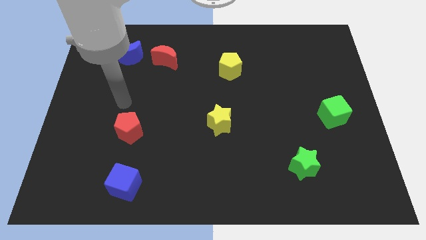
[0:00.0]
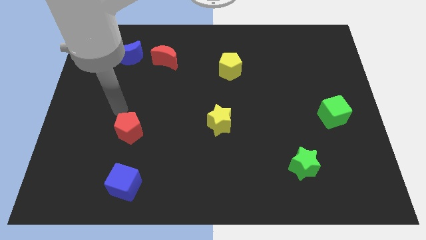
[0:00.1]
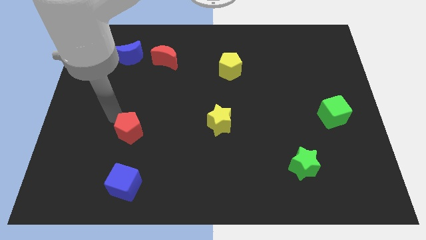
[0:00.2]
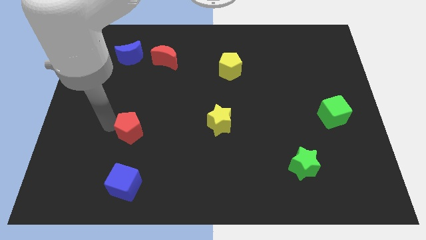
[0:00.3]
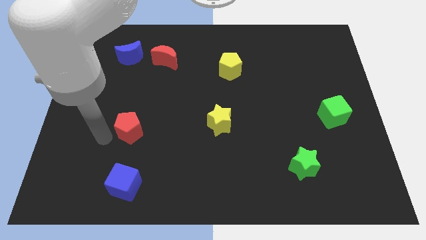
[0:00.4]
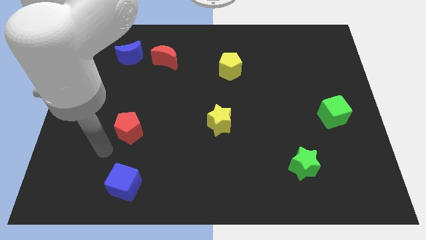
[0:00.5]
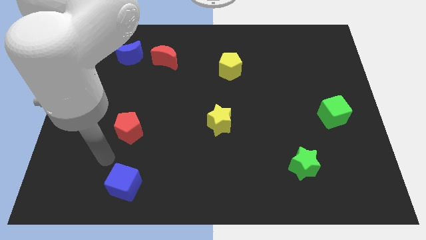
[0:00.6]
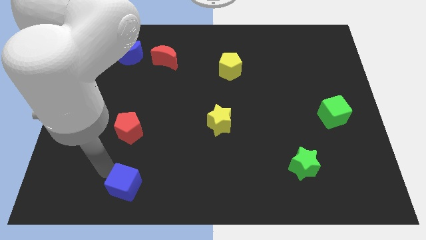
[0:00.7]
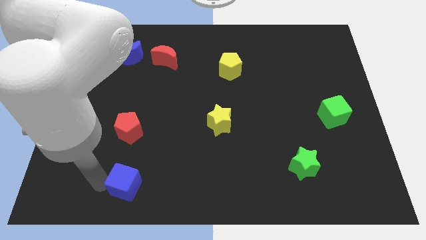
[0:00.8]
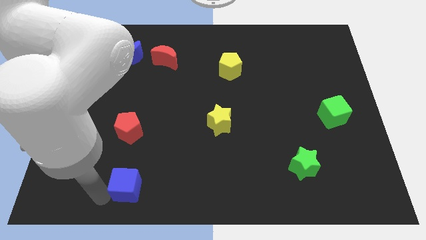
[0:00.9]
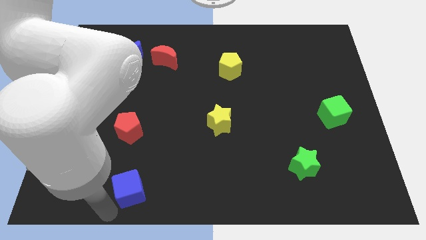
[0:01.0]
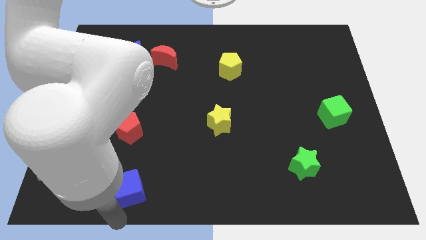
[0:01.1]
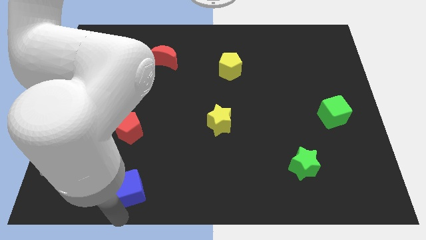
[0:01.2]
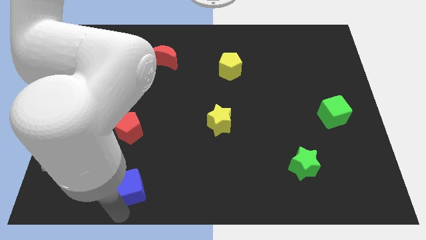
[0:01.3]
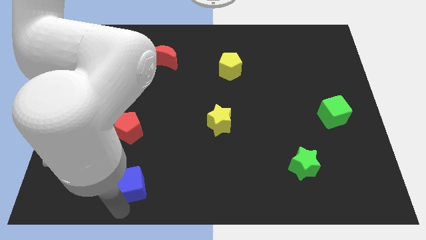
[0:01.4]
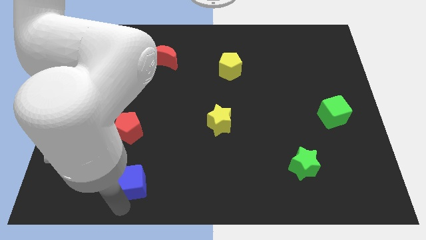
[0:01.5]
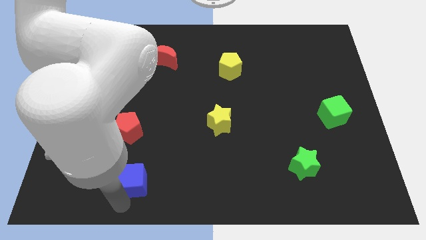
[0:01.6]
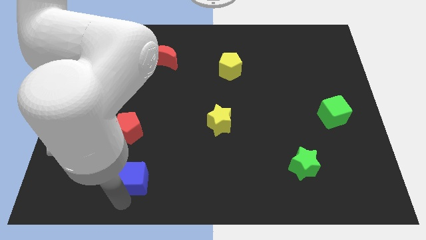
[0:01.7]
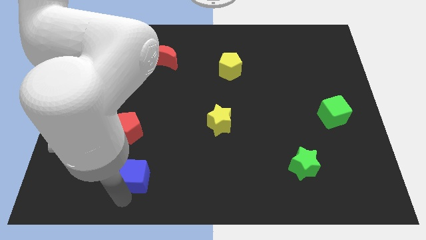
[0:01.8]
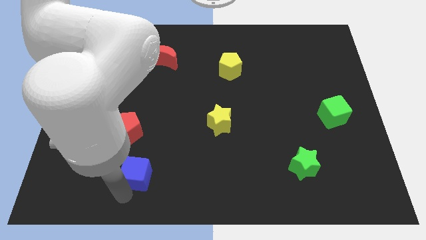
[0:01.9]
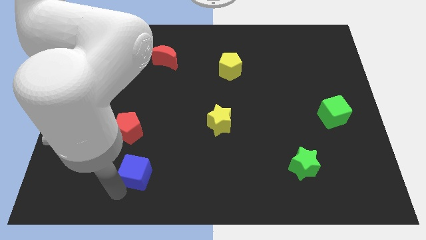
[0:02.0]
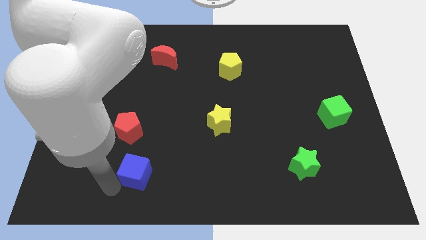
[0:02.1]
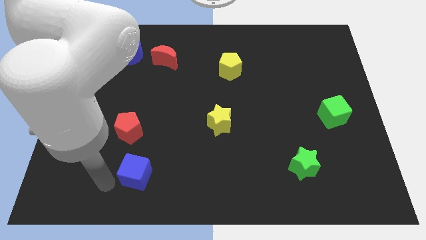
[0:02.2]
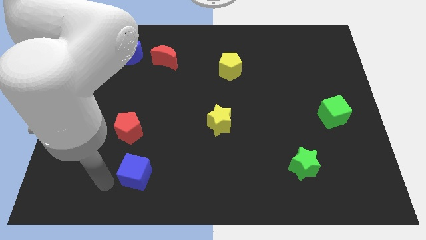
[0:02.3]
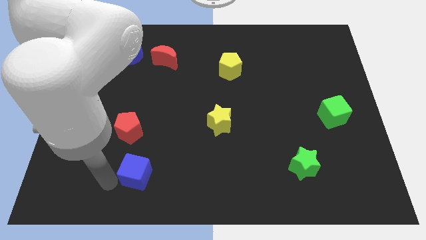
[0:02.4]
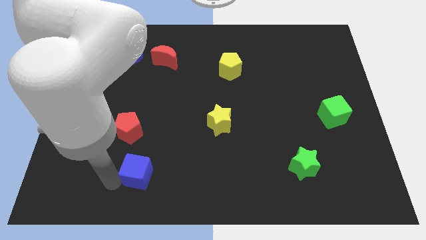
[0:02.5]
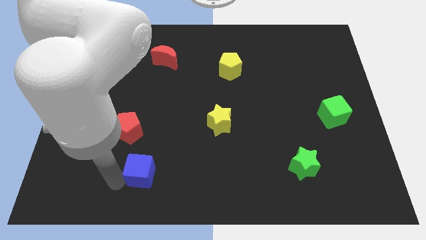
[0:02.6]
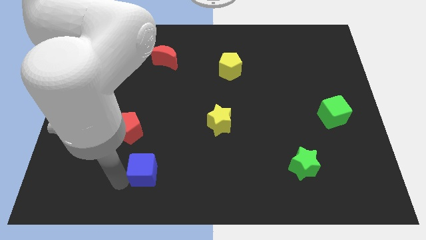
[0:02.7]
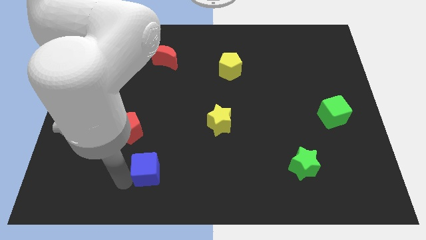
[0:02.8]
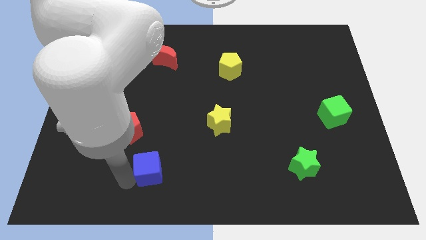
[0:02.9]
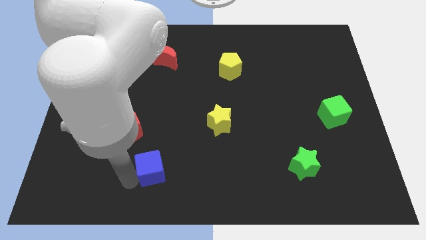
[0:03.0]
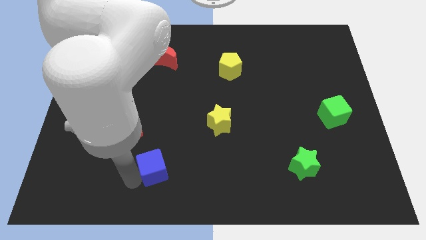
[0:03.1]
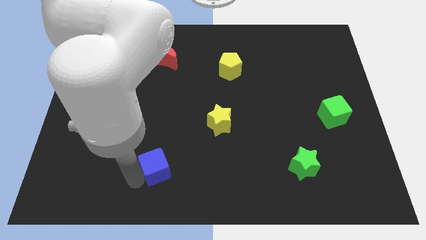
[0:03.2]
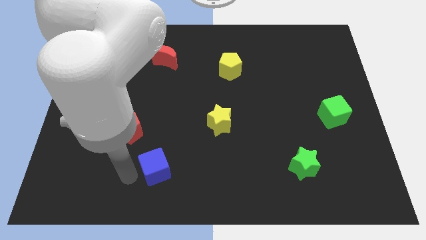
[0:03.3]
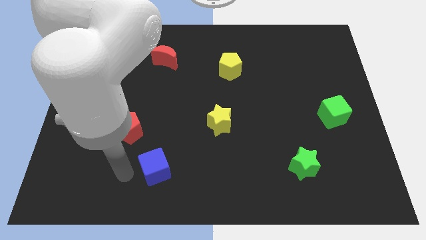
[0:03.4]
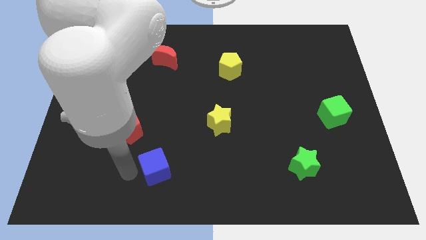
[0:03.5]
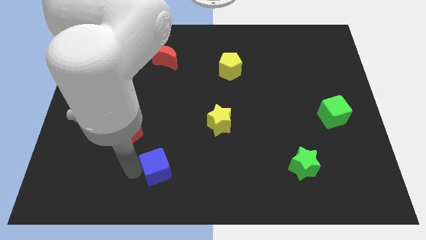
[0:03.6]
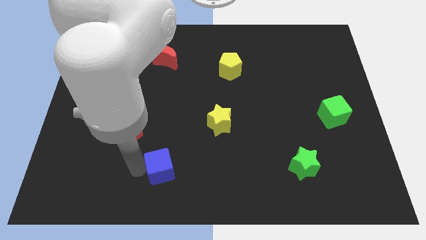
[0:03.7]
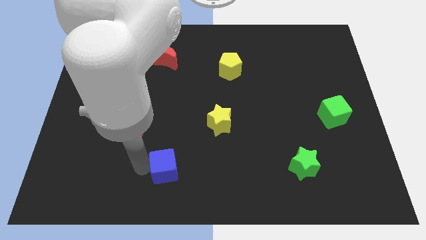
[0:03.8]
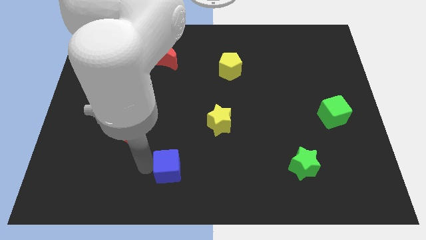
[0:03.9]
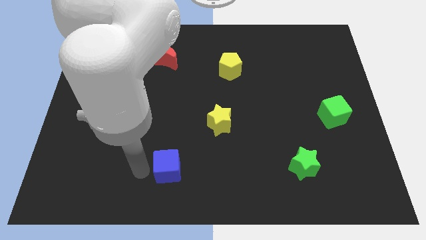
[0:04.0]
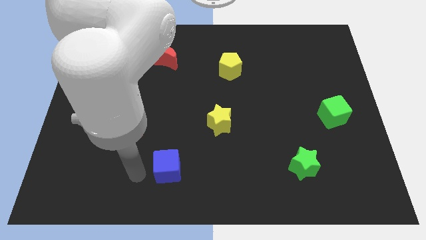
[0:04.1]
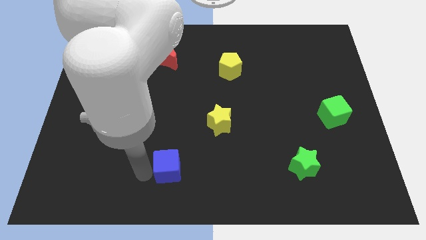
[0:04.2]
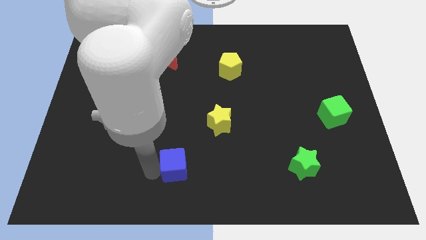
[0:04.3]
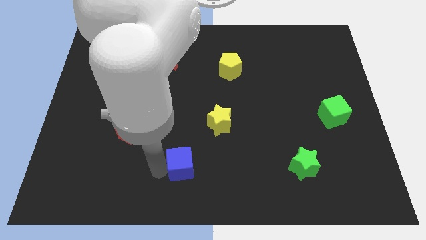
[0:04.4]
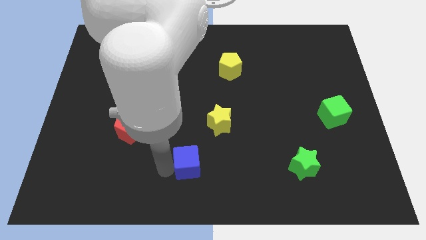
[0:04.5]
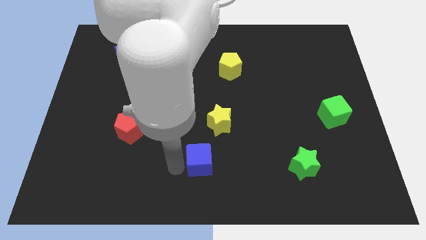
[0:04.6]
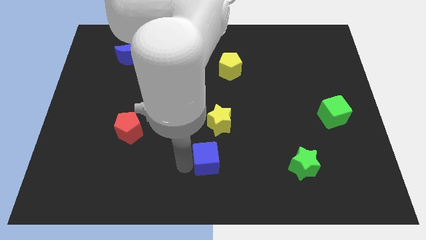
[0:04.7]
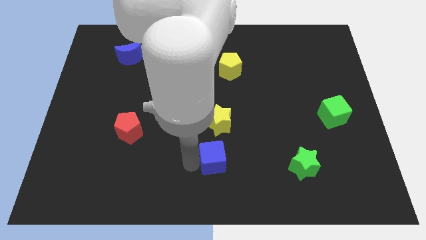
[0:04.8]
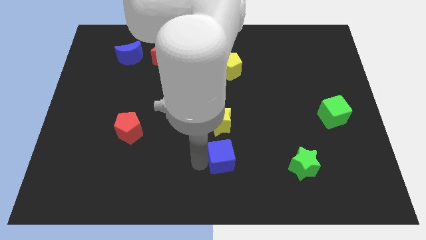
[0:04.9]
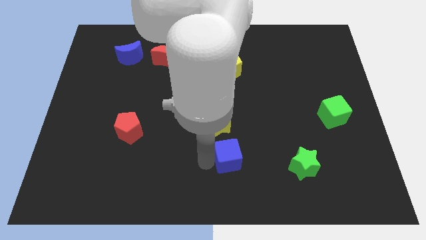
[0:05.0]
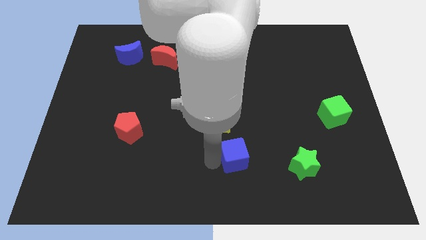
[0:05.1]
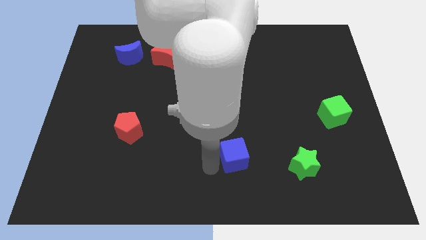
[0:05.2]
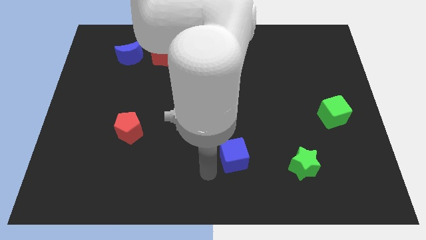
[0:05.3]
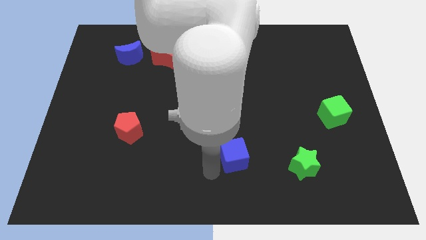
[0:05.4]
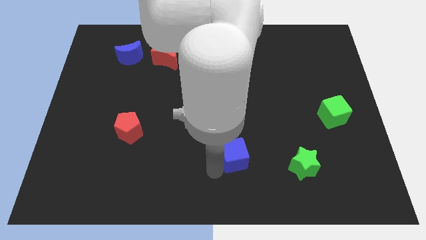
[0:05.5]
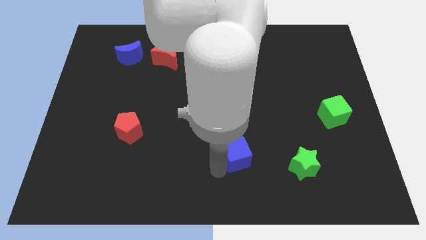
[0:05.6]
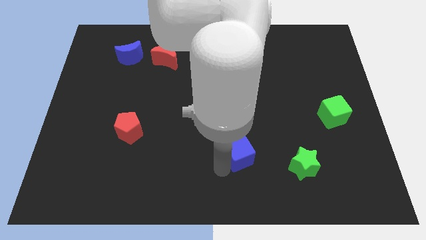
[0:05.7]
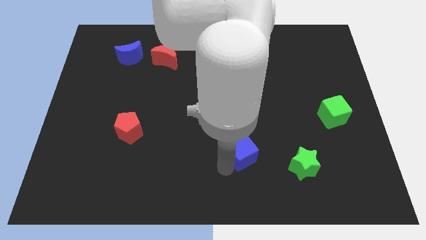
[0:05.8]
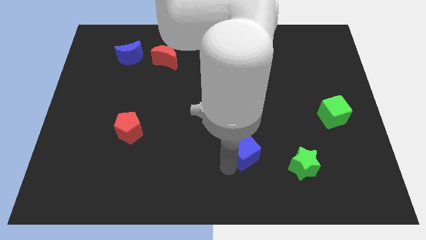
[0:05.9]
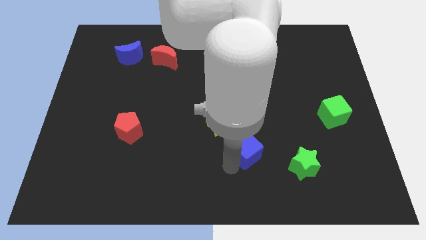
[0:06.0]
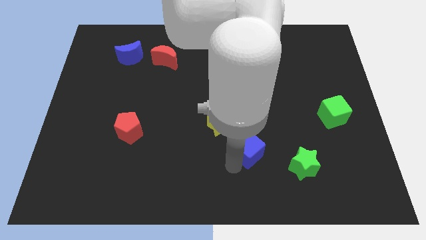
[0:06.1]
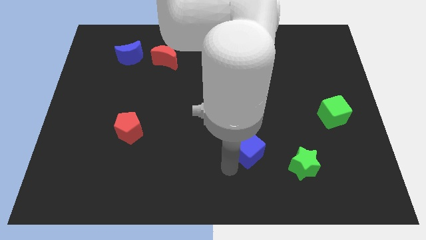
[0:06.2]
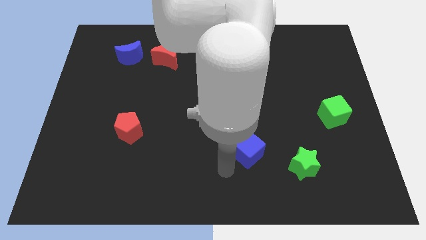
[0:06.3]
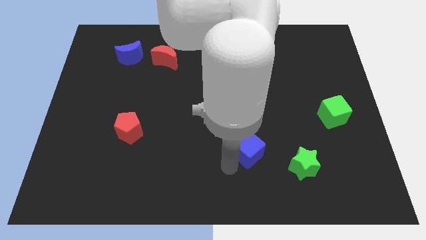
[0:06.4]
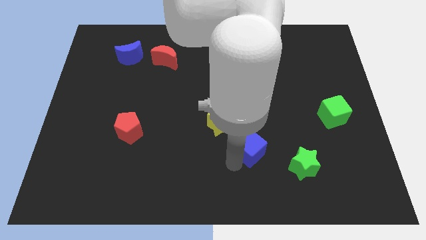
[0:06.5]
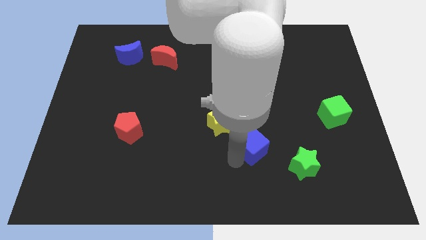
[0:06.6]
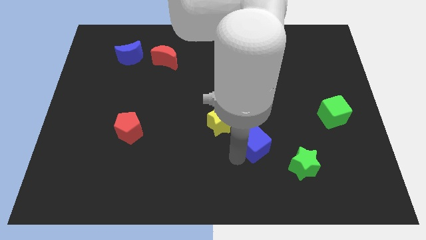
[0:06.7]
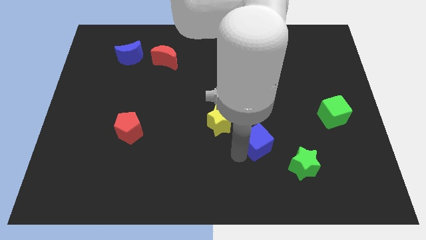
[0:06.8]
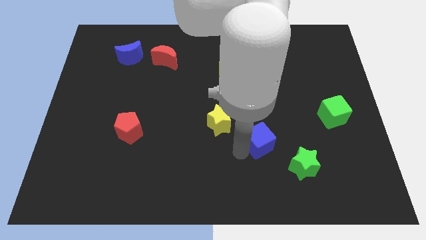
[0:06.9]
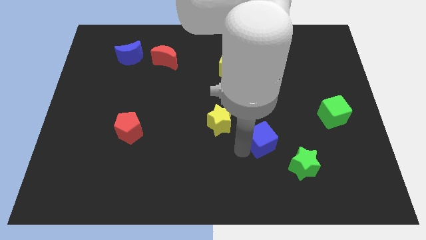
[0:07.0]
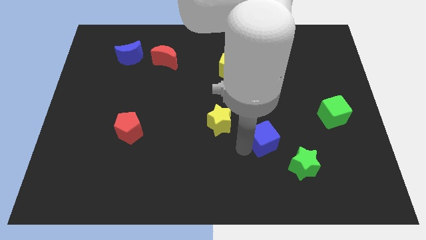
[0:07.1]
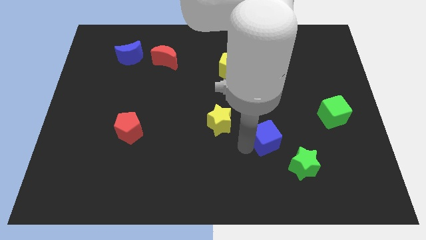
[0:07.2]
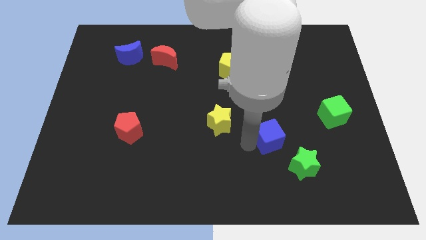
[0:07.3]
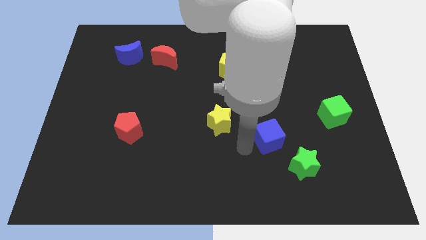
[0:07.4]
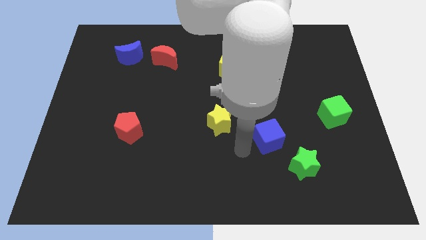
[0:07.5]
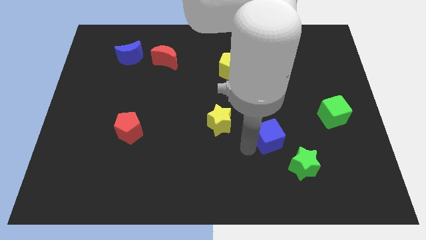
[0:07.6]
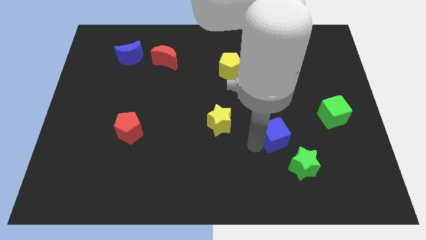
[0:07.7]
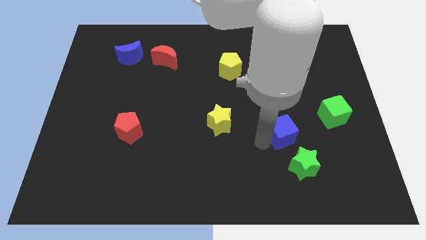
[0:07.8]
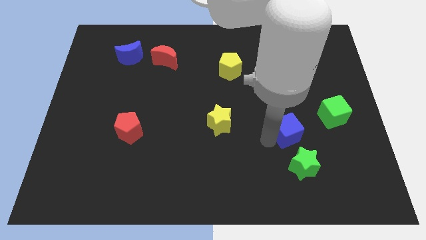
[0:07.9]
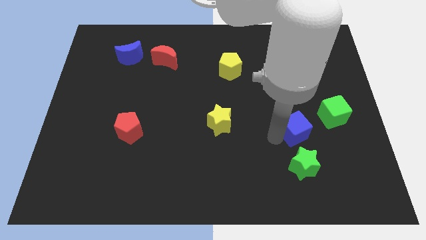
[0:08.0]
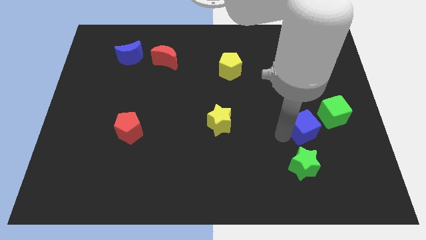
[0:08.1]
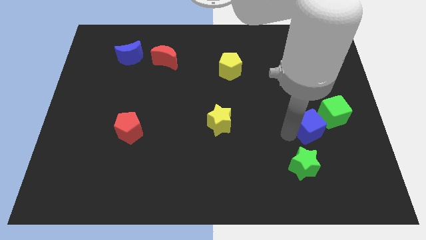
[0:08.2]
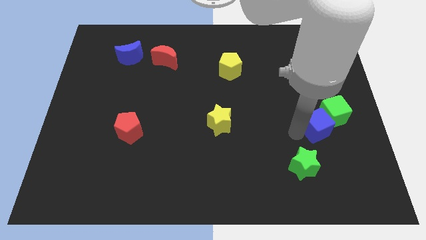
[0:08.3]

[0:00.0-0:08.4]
move the blue cube towards the green cube
